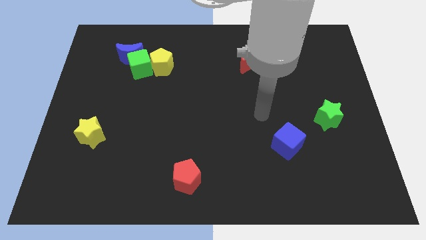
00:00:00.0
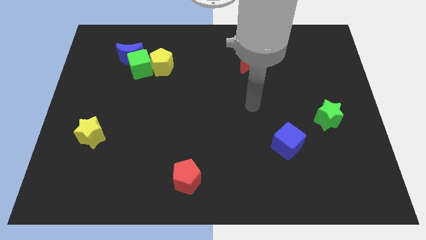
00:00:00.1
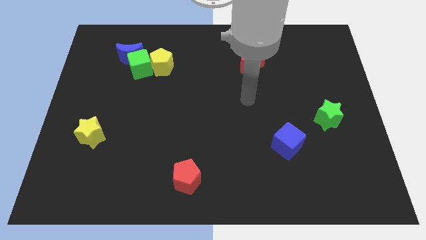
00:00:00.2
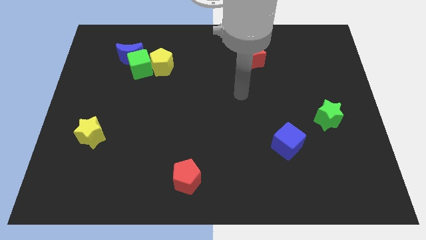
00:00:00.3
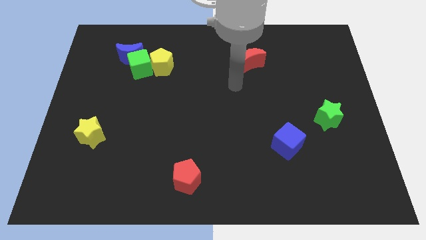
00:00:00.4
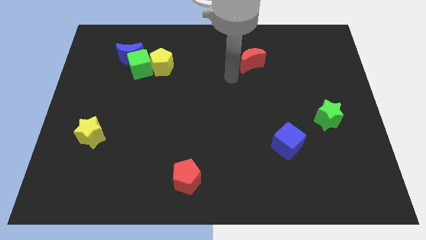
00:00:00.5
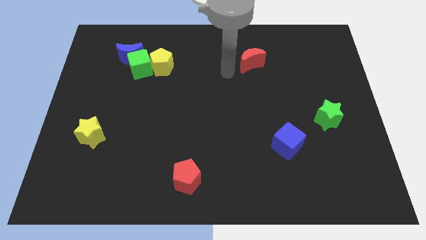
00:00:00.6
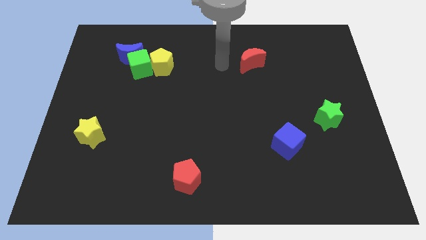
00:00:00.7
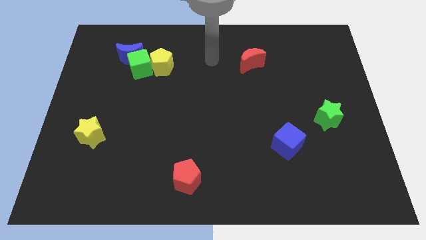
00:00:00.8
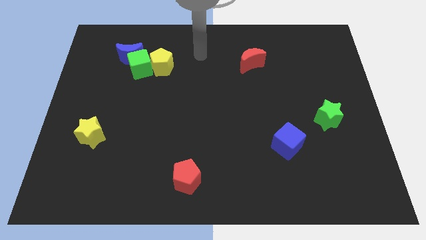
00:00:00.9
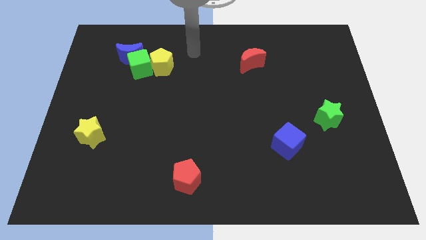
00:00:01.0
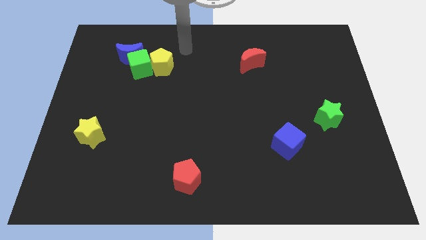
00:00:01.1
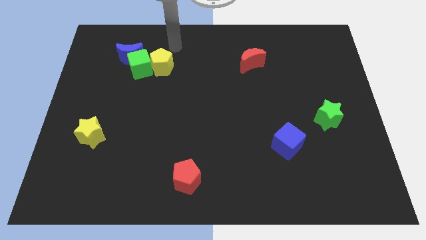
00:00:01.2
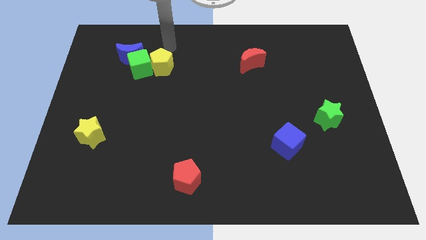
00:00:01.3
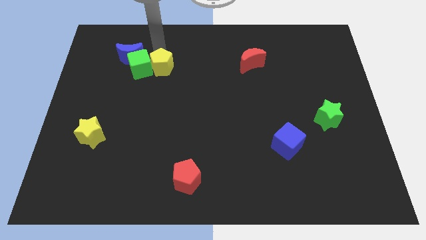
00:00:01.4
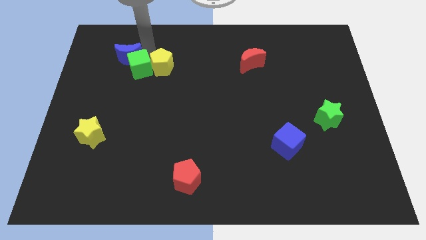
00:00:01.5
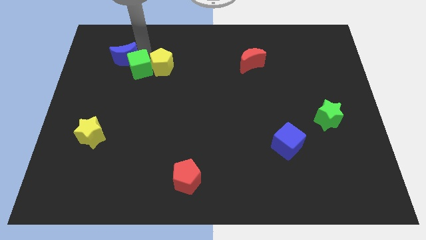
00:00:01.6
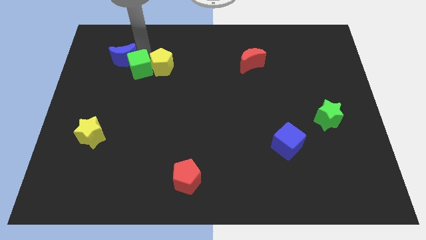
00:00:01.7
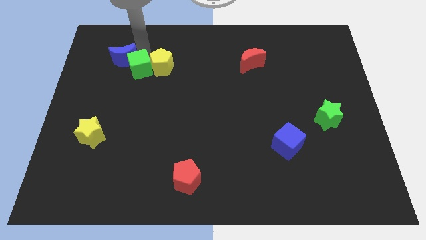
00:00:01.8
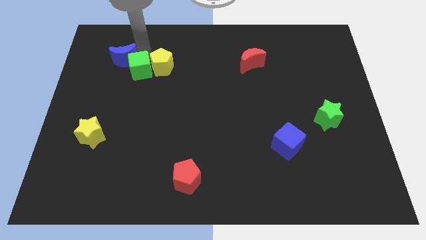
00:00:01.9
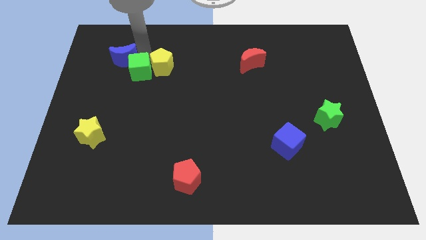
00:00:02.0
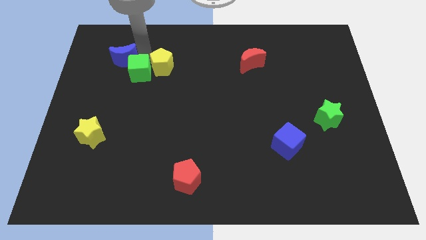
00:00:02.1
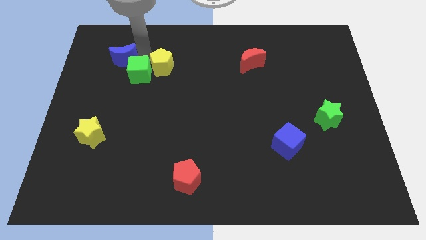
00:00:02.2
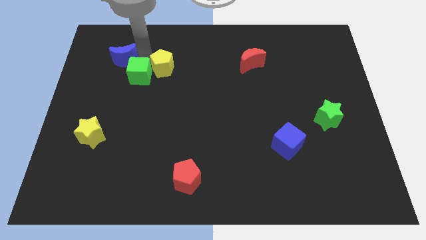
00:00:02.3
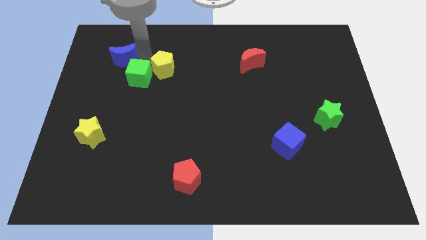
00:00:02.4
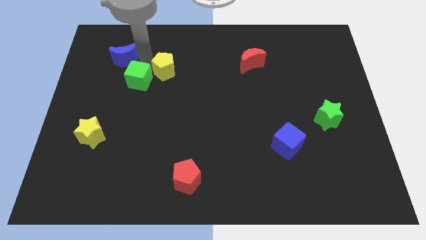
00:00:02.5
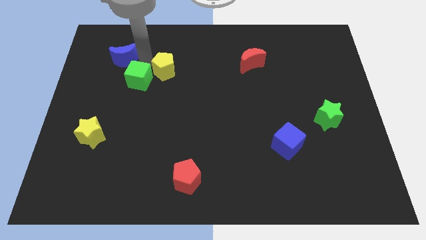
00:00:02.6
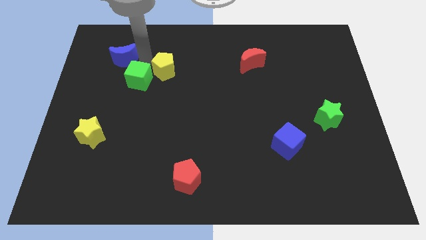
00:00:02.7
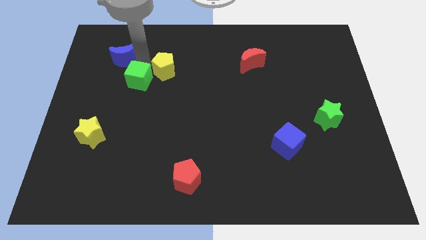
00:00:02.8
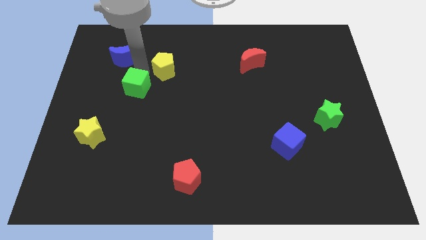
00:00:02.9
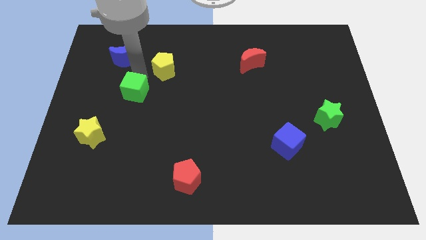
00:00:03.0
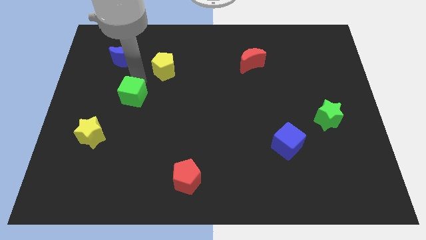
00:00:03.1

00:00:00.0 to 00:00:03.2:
pull the green cube apart from the blue moon and yellow pentagon

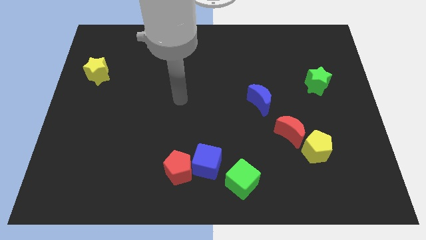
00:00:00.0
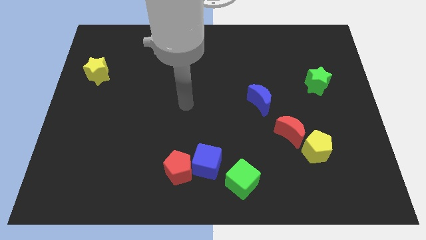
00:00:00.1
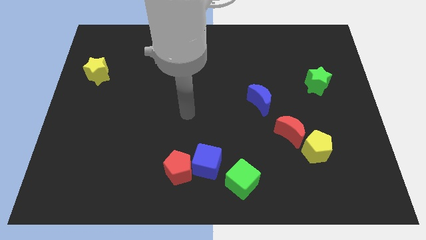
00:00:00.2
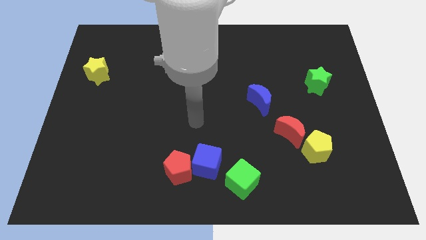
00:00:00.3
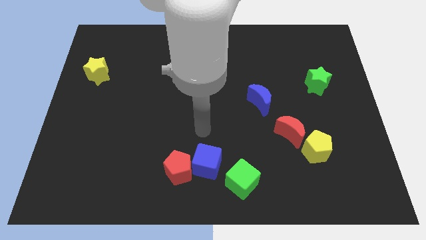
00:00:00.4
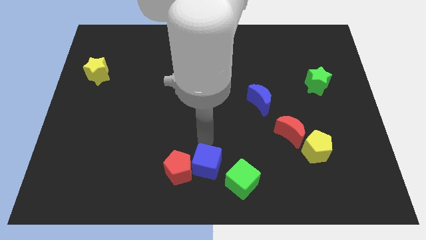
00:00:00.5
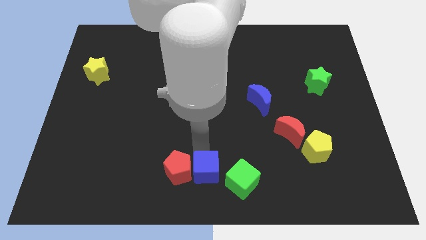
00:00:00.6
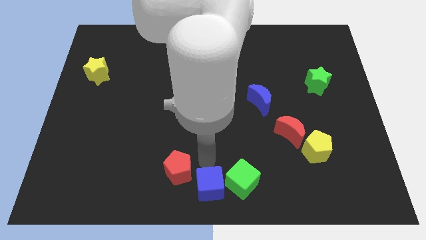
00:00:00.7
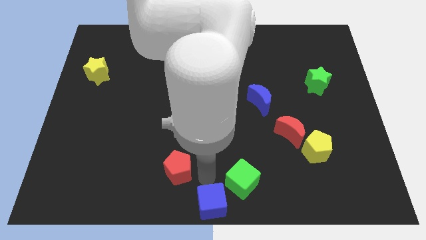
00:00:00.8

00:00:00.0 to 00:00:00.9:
pull the red pentagon apart from the blue cube

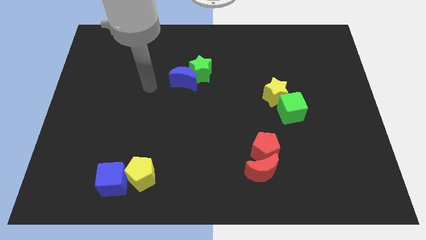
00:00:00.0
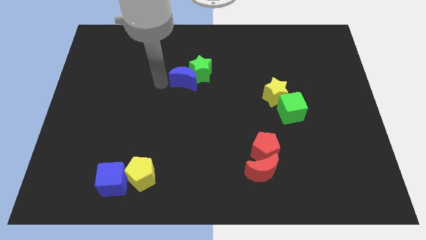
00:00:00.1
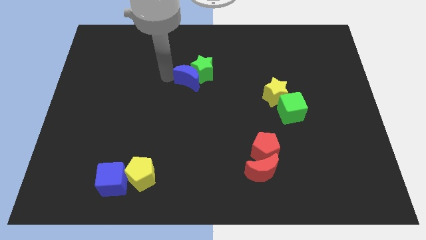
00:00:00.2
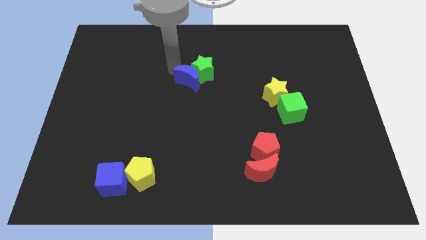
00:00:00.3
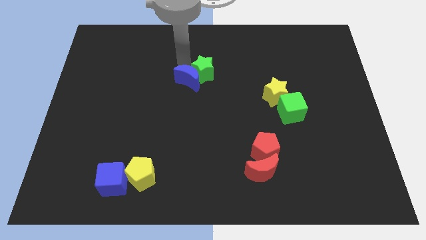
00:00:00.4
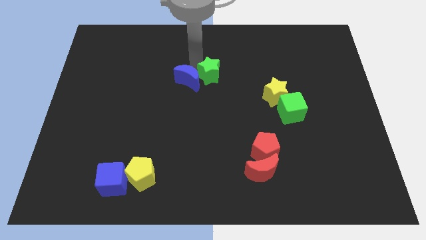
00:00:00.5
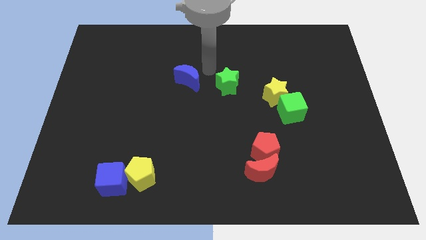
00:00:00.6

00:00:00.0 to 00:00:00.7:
move the blue moon away from the green star

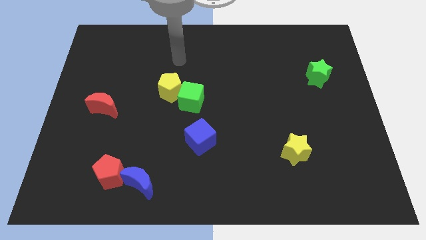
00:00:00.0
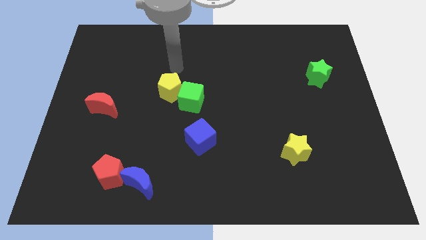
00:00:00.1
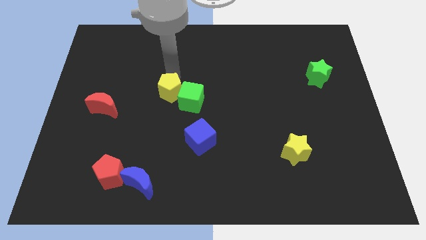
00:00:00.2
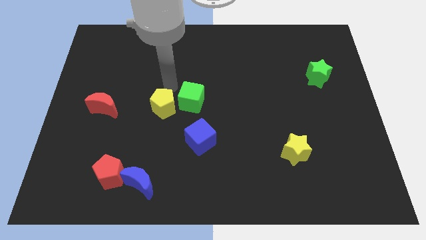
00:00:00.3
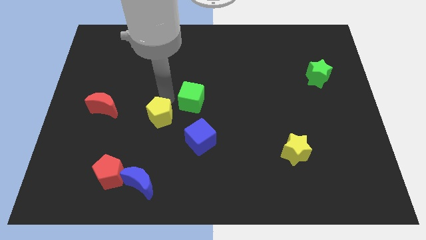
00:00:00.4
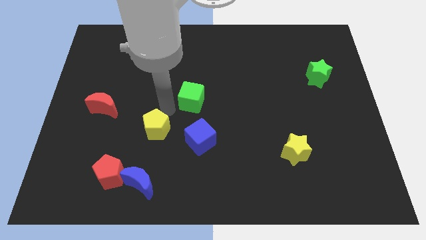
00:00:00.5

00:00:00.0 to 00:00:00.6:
move the green cube away from the yellow pentagon

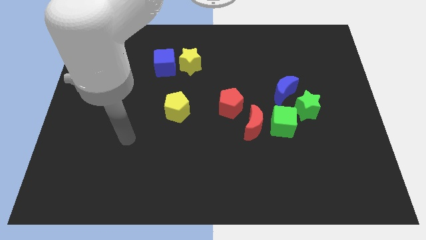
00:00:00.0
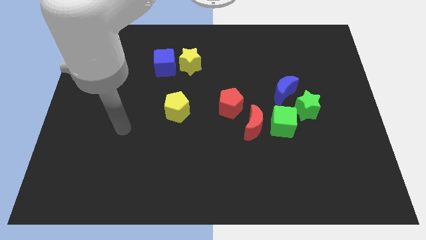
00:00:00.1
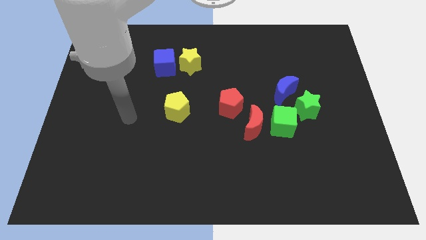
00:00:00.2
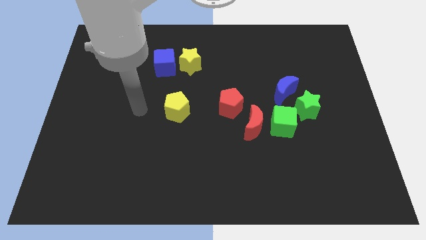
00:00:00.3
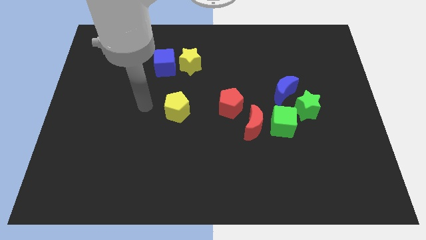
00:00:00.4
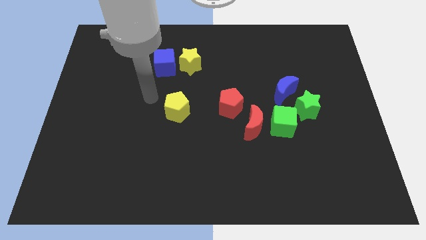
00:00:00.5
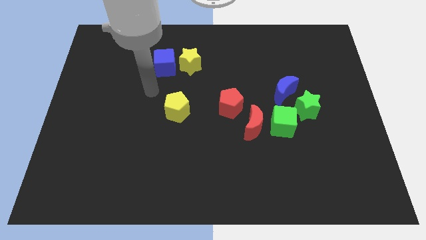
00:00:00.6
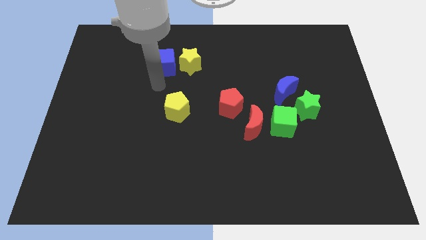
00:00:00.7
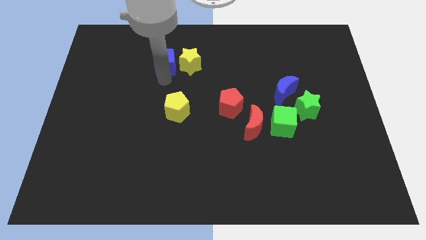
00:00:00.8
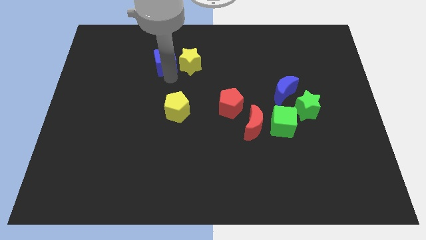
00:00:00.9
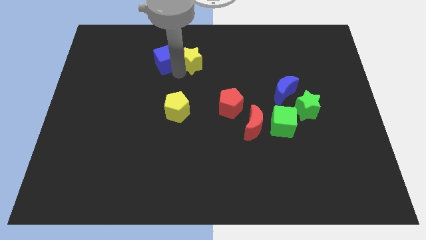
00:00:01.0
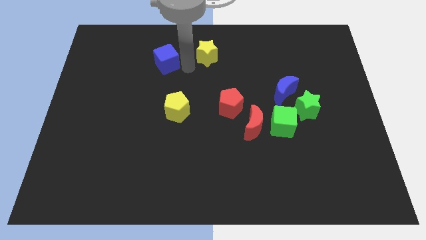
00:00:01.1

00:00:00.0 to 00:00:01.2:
separate the blue cube from the yellow star

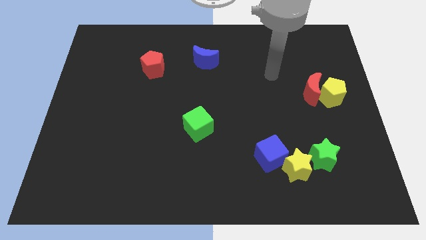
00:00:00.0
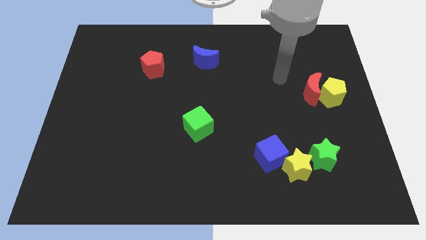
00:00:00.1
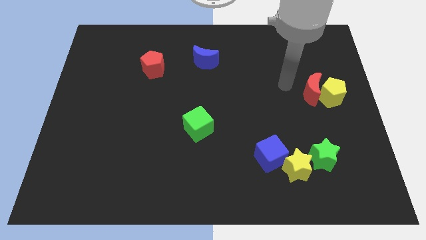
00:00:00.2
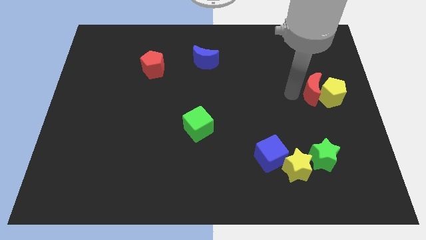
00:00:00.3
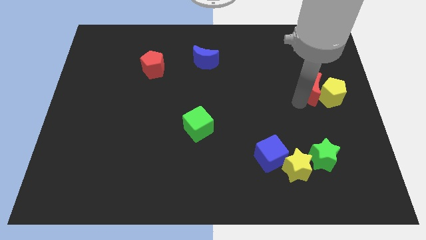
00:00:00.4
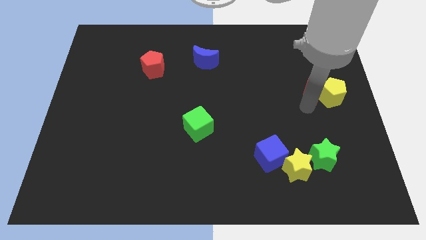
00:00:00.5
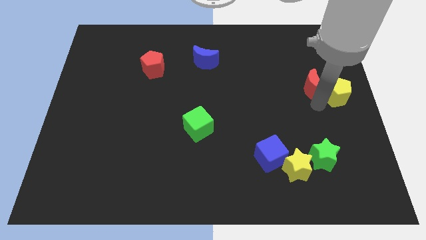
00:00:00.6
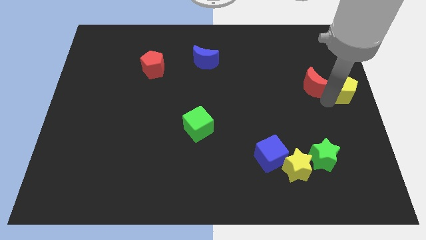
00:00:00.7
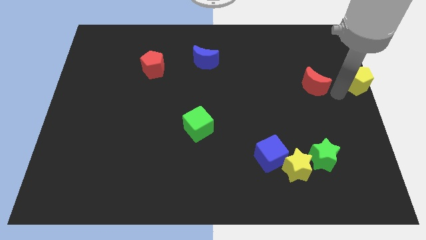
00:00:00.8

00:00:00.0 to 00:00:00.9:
separate the red moon from the yellow pentagon

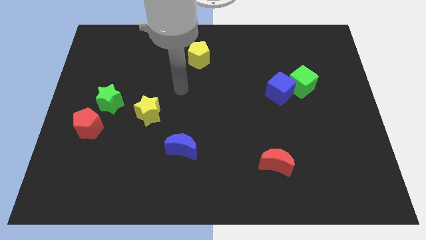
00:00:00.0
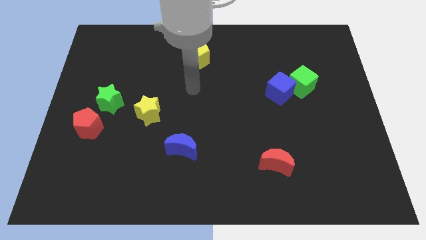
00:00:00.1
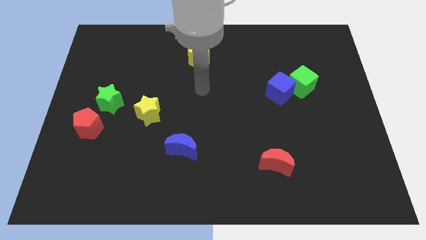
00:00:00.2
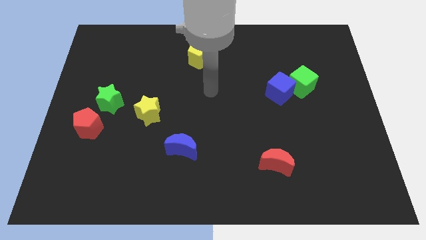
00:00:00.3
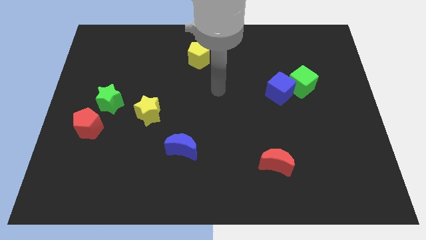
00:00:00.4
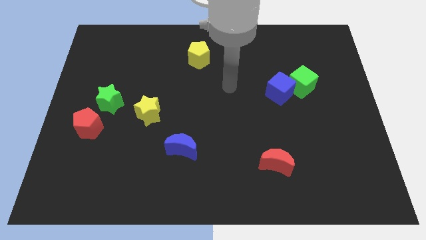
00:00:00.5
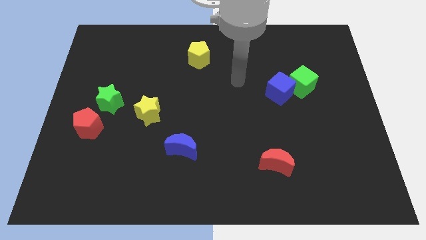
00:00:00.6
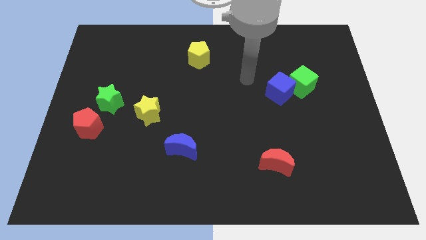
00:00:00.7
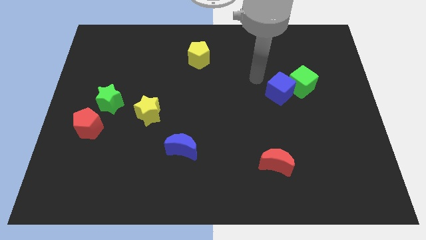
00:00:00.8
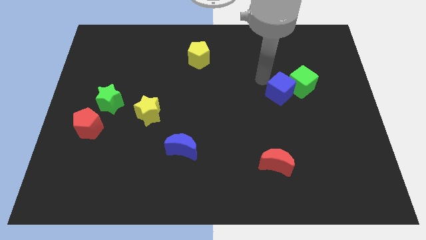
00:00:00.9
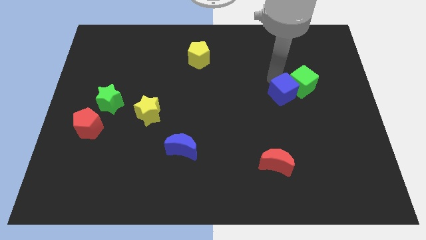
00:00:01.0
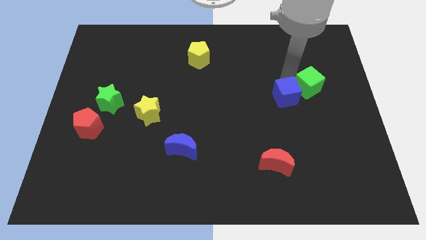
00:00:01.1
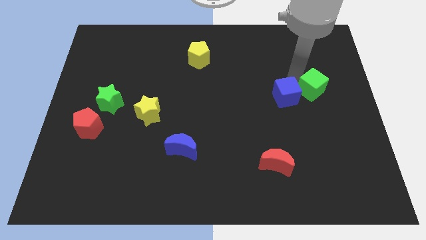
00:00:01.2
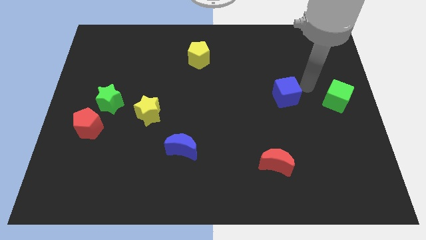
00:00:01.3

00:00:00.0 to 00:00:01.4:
move the blue cube away from the green cube

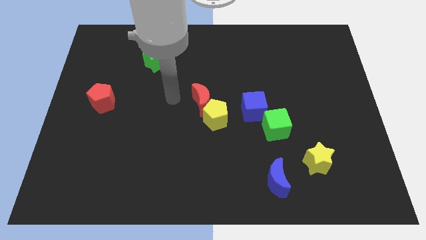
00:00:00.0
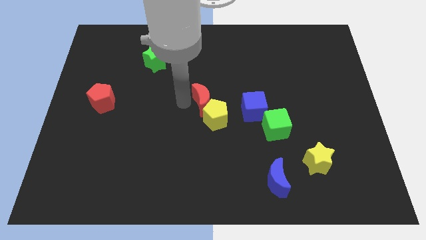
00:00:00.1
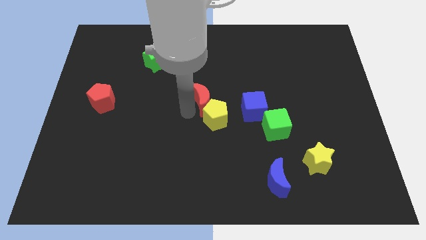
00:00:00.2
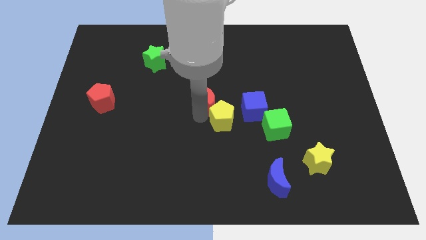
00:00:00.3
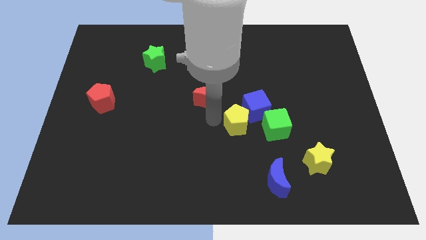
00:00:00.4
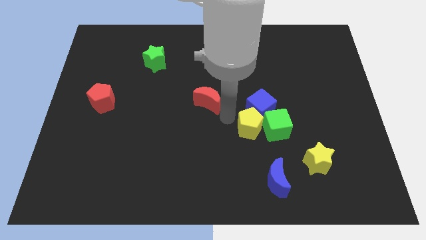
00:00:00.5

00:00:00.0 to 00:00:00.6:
pull the red moon apart from the yellow pentagon
